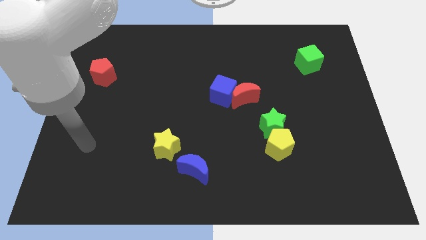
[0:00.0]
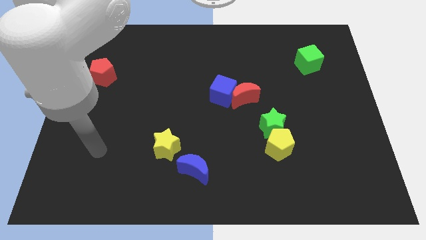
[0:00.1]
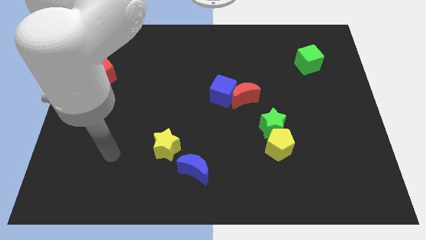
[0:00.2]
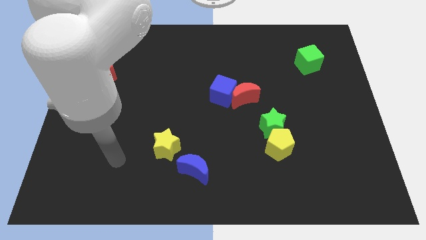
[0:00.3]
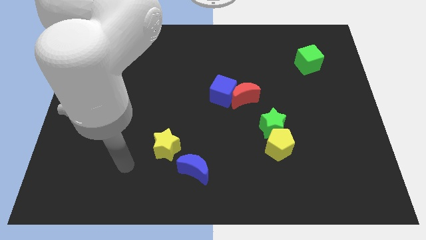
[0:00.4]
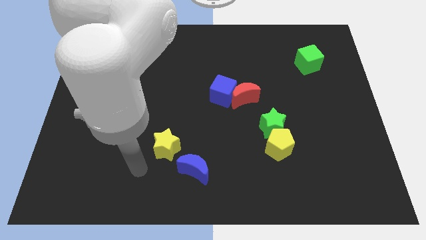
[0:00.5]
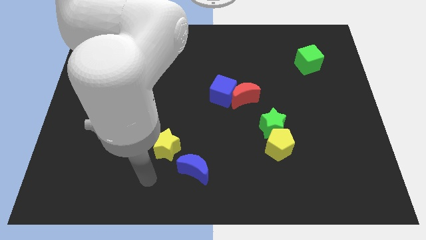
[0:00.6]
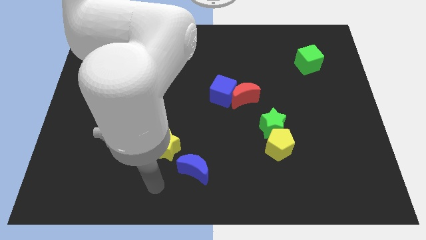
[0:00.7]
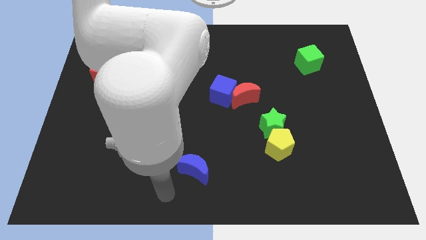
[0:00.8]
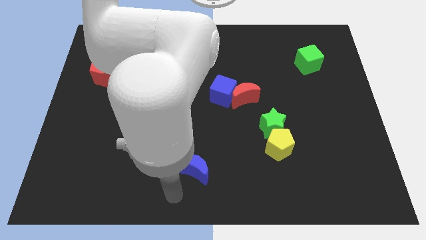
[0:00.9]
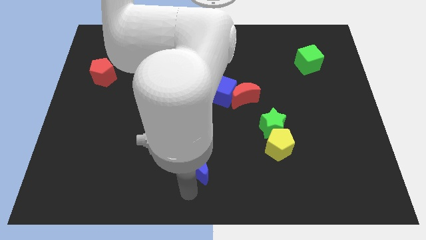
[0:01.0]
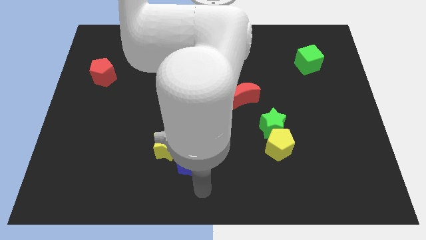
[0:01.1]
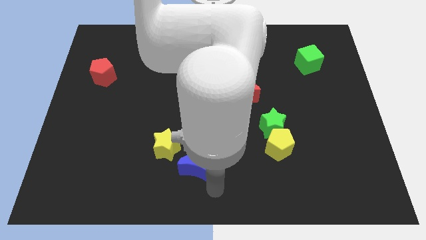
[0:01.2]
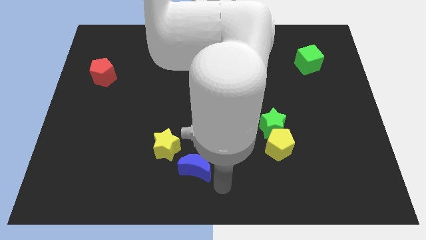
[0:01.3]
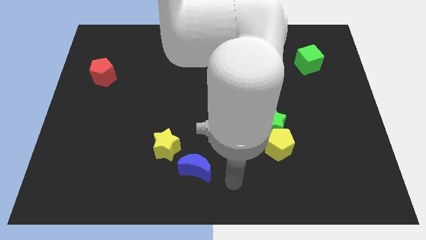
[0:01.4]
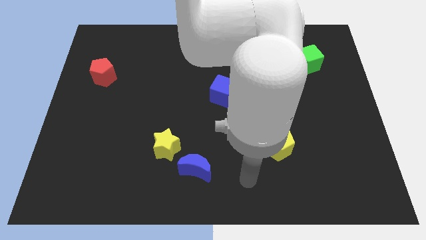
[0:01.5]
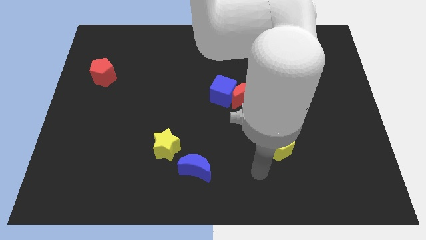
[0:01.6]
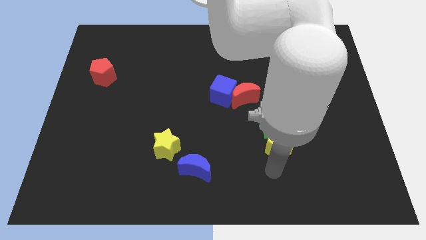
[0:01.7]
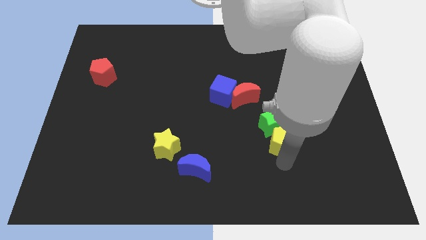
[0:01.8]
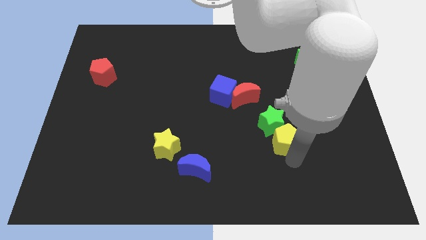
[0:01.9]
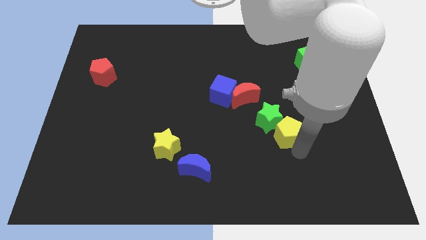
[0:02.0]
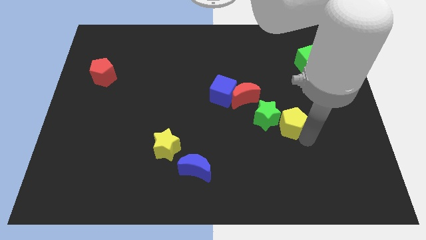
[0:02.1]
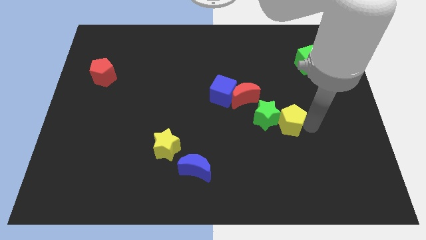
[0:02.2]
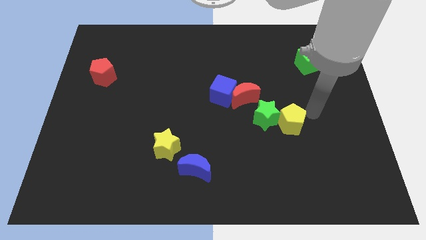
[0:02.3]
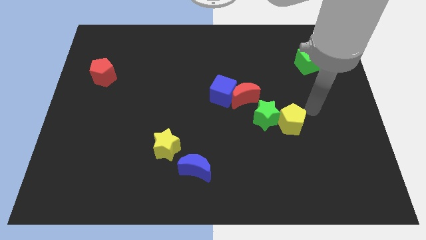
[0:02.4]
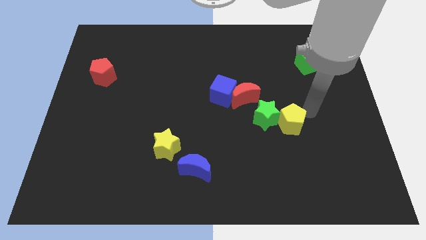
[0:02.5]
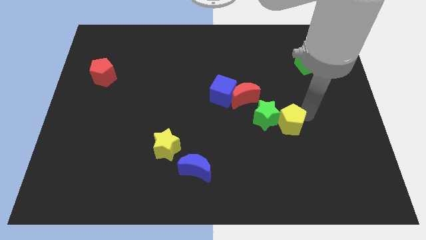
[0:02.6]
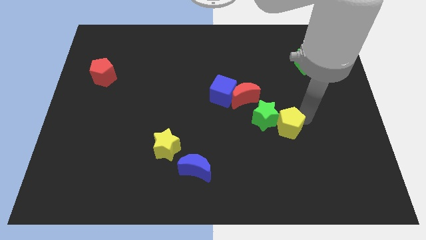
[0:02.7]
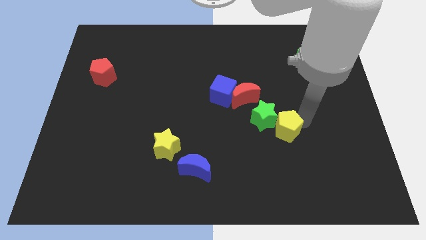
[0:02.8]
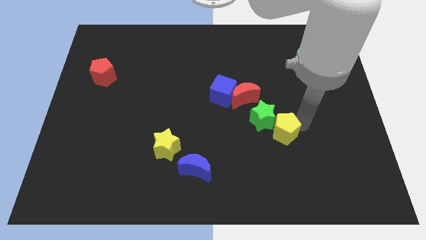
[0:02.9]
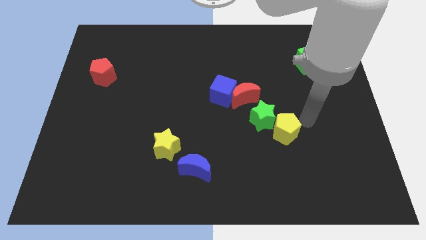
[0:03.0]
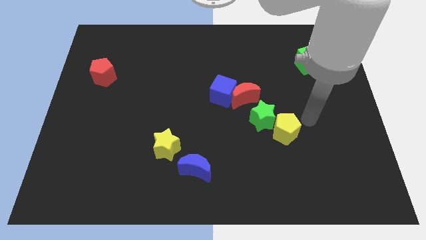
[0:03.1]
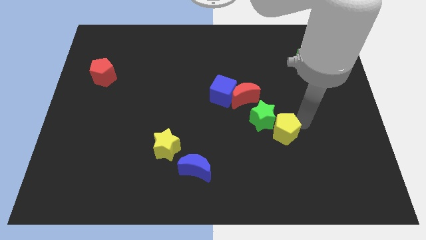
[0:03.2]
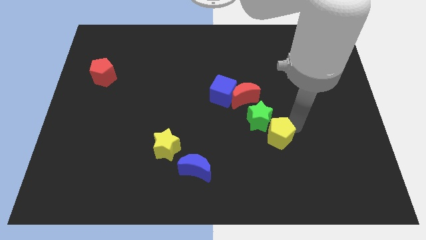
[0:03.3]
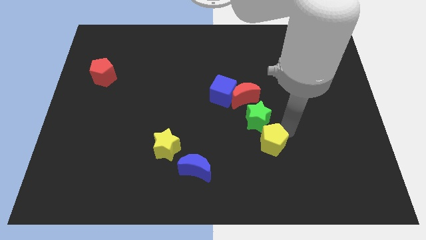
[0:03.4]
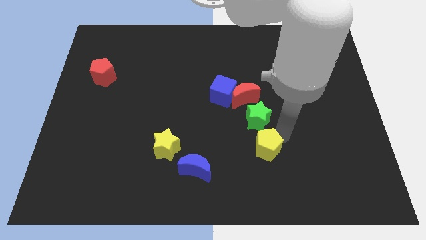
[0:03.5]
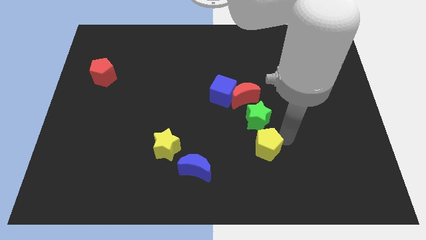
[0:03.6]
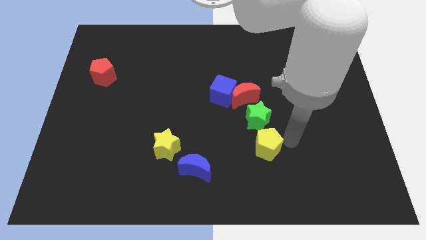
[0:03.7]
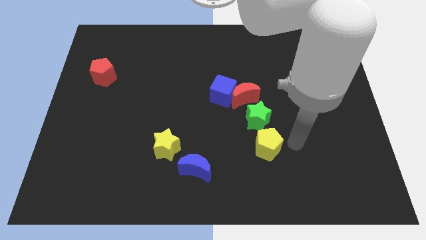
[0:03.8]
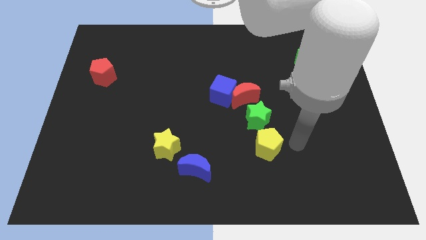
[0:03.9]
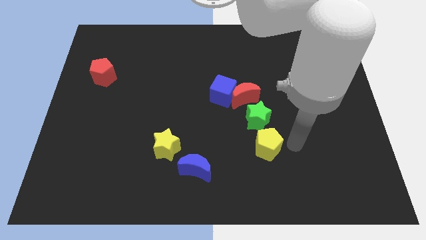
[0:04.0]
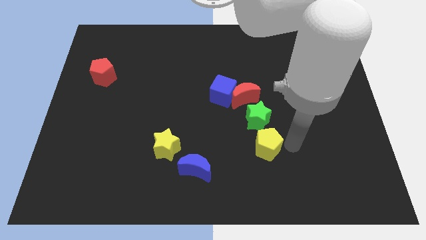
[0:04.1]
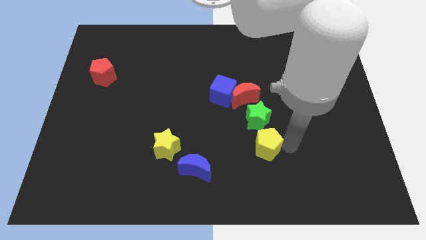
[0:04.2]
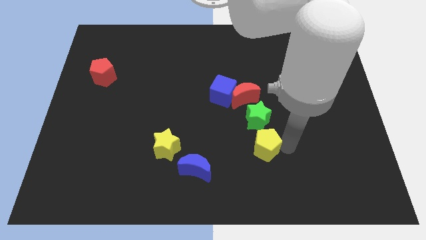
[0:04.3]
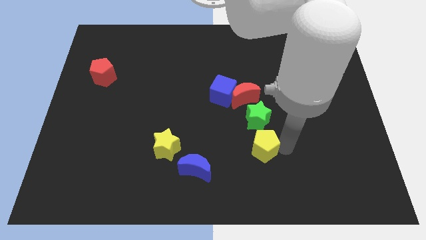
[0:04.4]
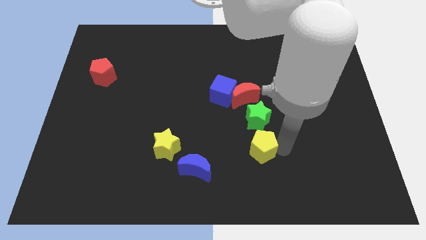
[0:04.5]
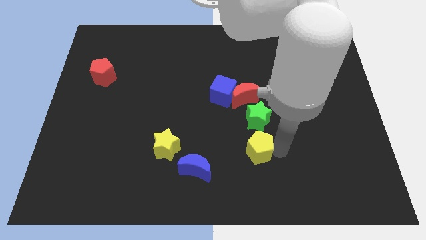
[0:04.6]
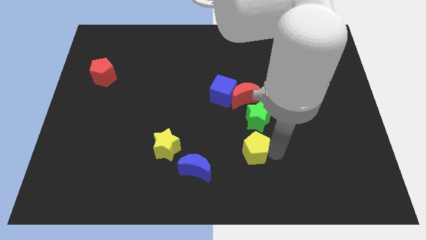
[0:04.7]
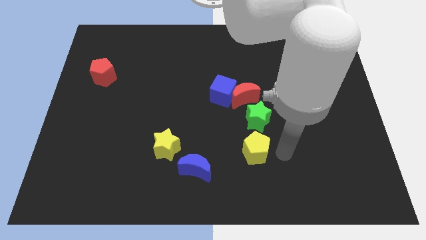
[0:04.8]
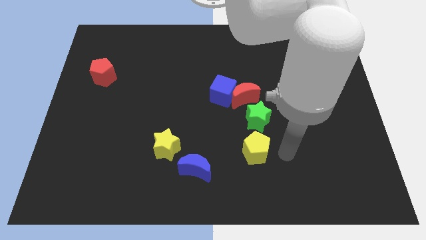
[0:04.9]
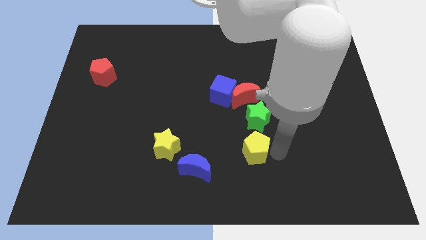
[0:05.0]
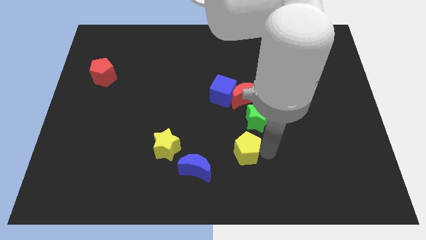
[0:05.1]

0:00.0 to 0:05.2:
slightly move the yellow pentagon to the left

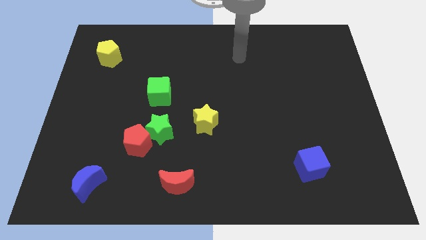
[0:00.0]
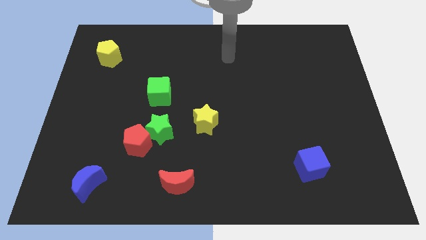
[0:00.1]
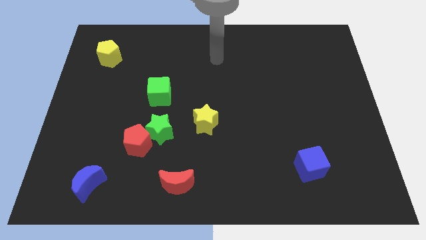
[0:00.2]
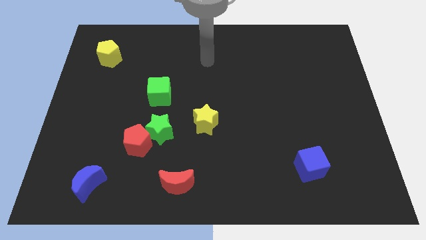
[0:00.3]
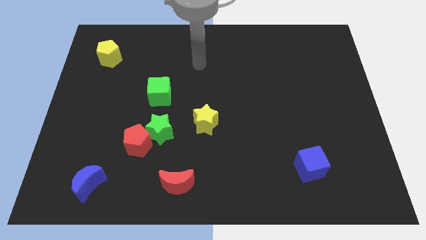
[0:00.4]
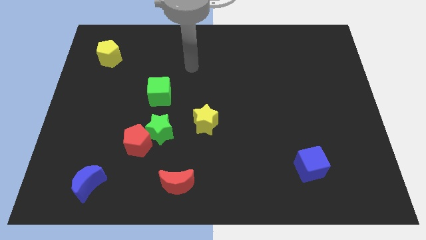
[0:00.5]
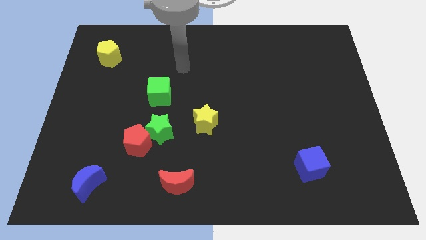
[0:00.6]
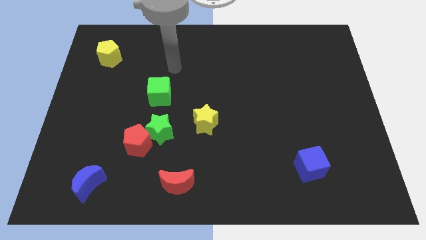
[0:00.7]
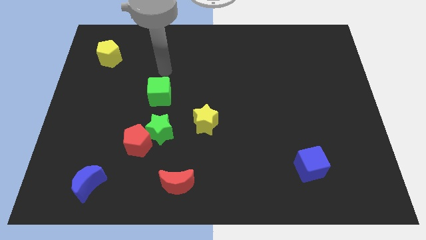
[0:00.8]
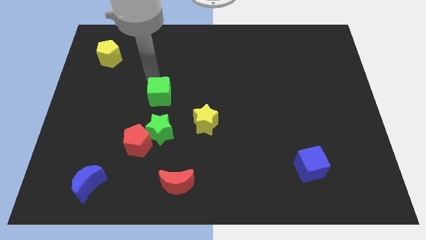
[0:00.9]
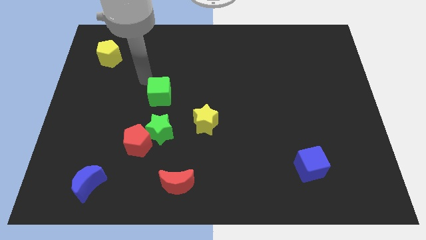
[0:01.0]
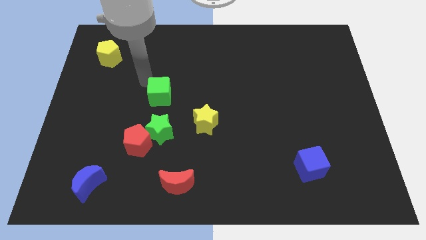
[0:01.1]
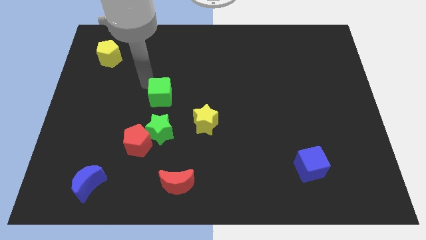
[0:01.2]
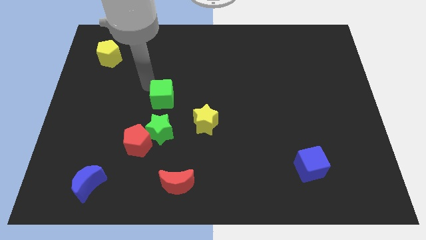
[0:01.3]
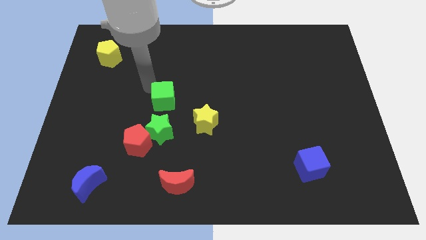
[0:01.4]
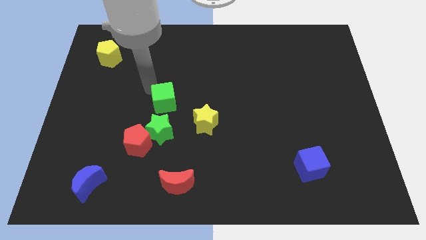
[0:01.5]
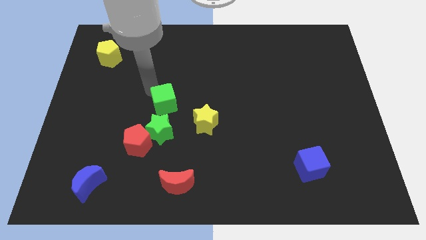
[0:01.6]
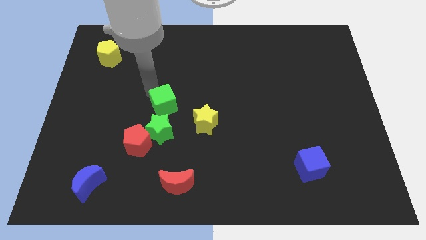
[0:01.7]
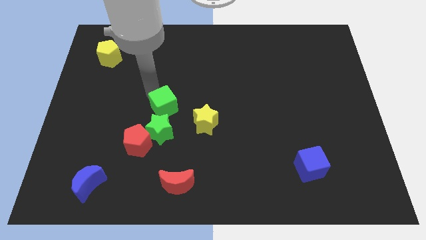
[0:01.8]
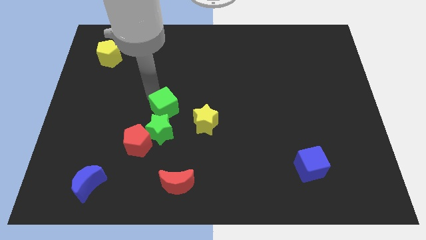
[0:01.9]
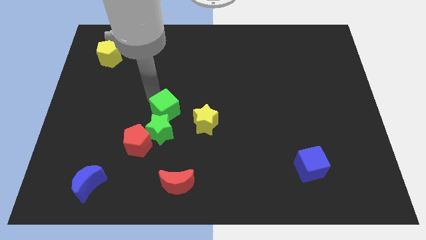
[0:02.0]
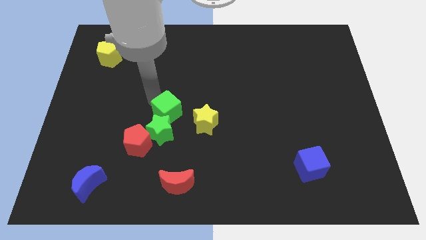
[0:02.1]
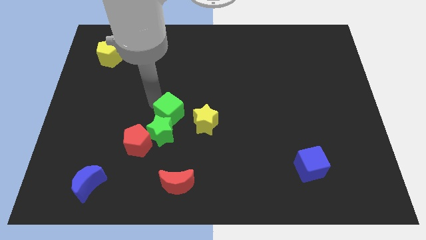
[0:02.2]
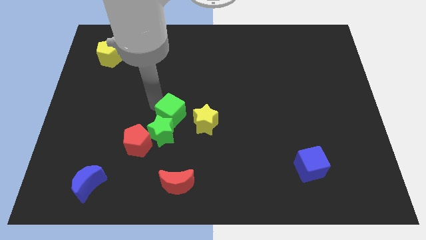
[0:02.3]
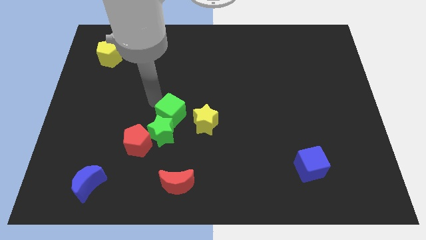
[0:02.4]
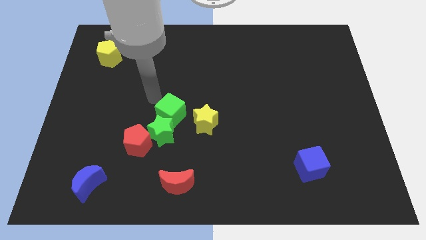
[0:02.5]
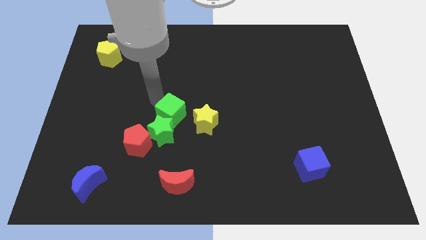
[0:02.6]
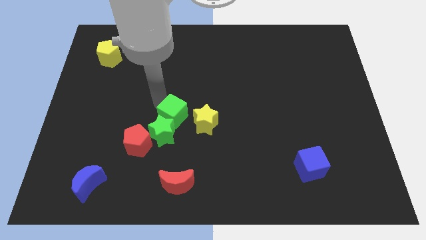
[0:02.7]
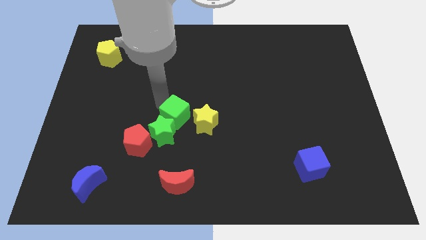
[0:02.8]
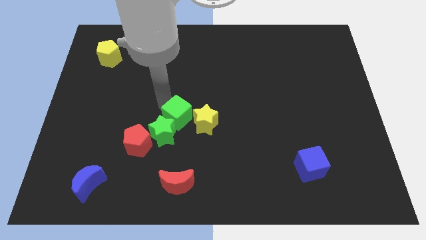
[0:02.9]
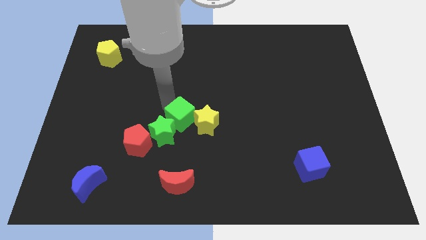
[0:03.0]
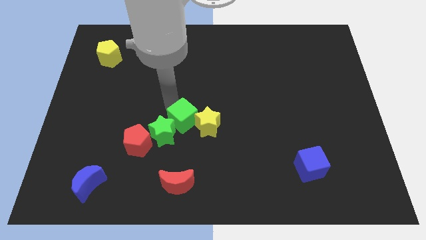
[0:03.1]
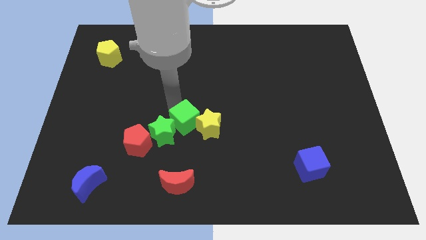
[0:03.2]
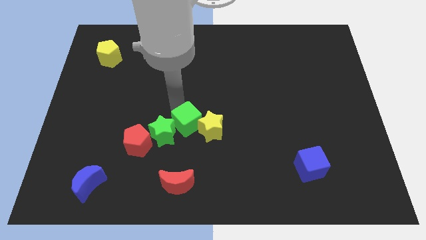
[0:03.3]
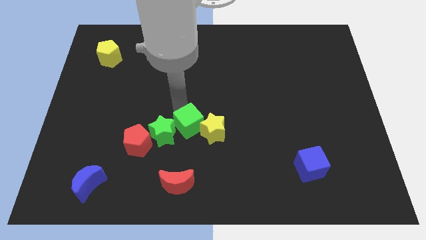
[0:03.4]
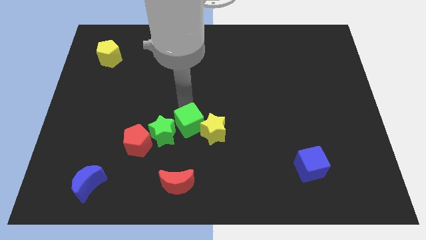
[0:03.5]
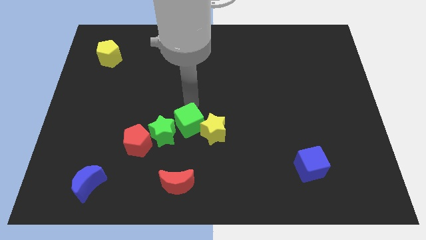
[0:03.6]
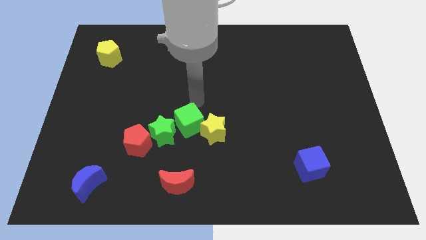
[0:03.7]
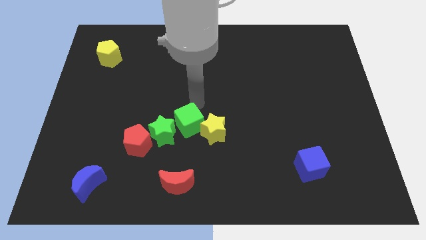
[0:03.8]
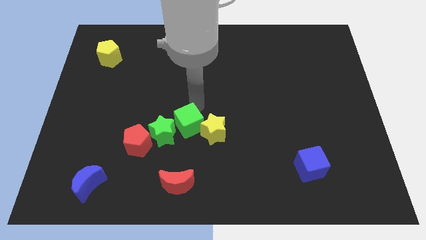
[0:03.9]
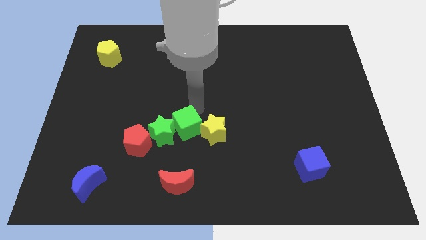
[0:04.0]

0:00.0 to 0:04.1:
move the green cube somewhat downwards
